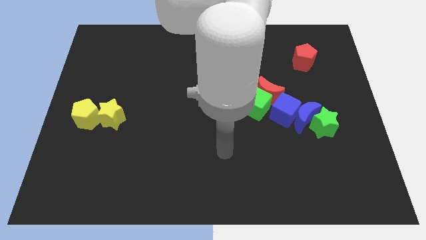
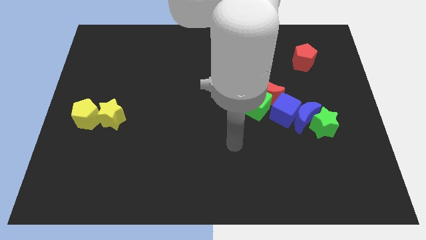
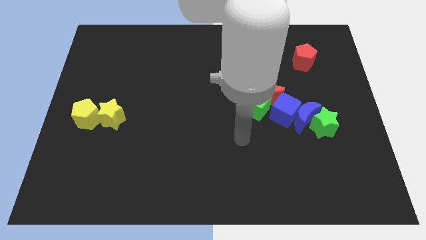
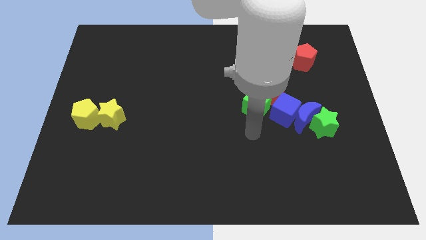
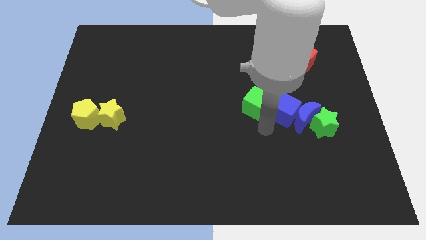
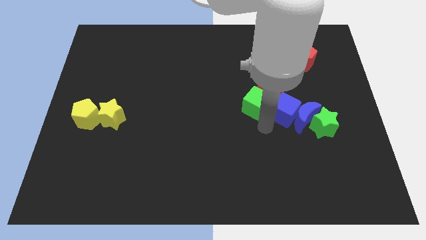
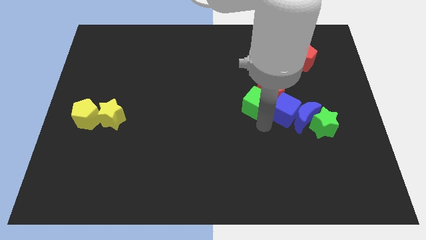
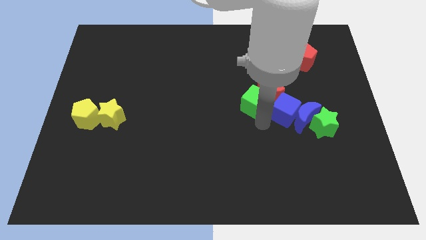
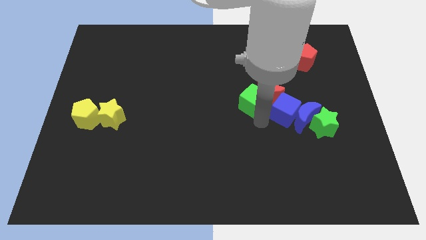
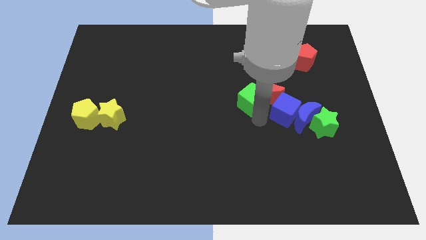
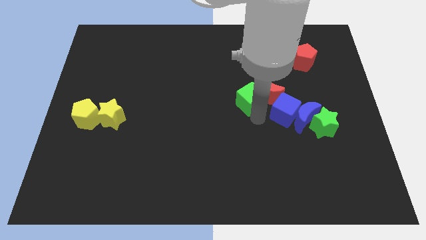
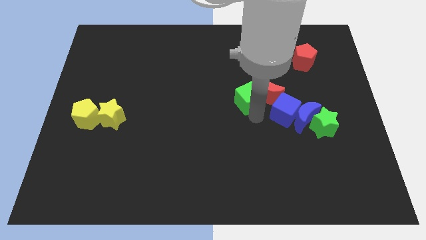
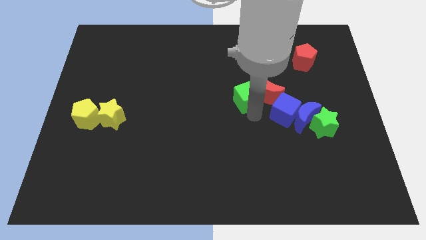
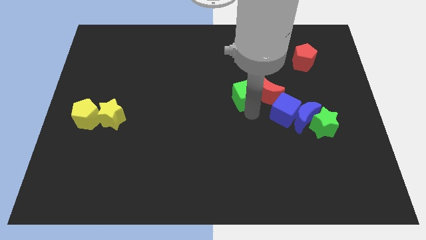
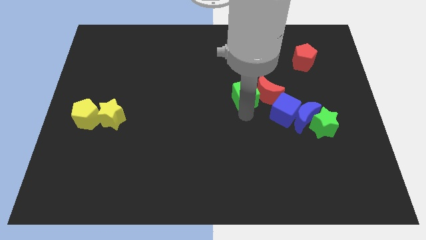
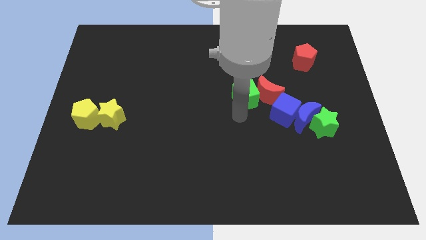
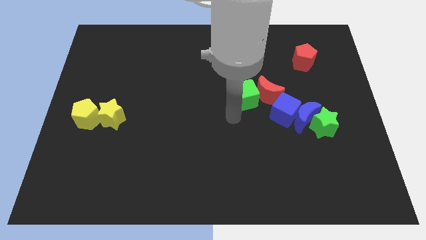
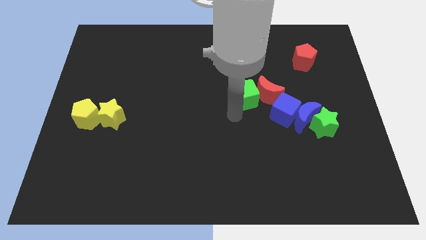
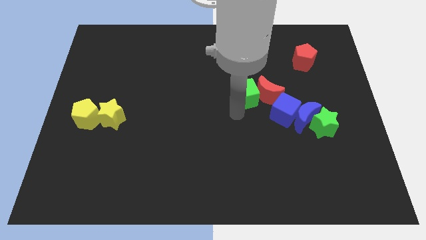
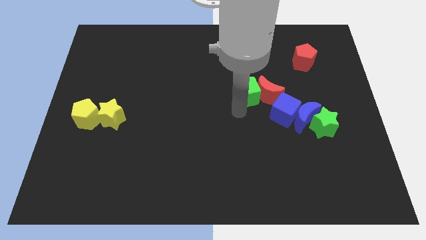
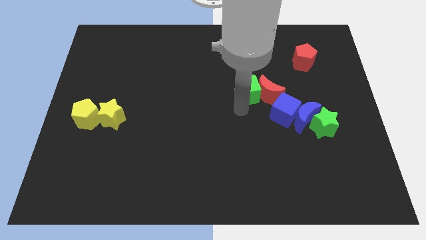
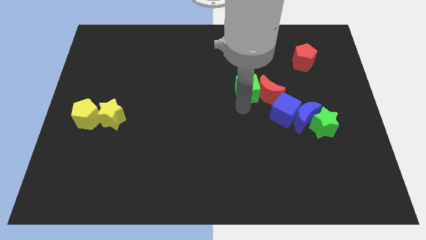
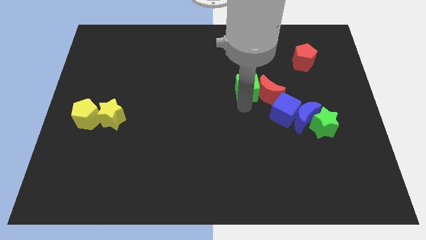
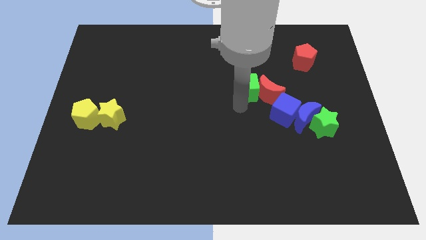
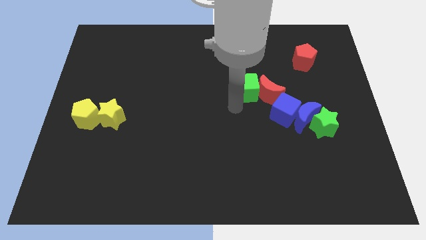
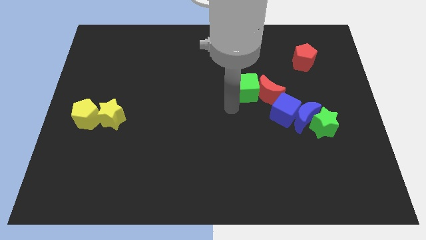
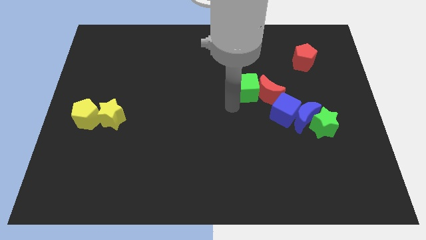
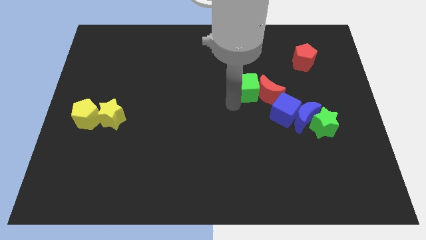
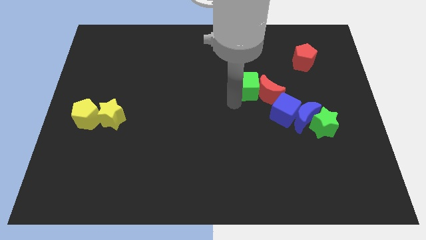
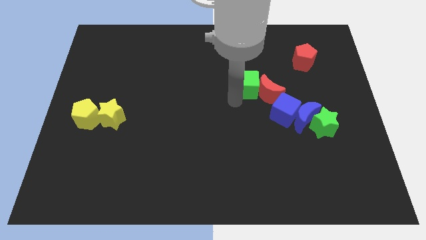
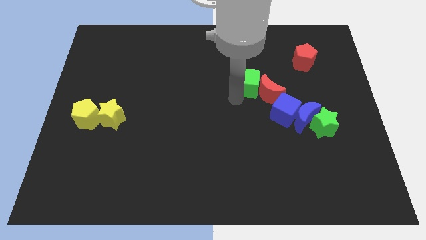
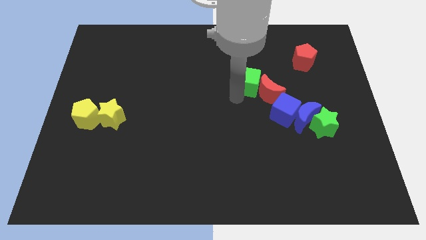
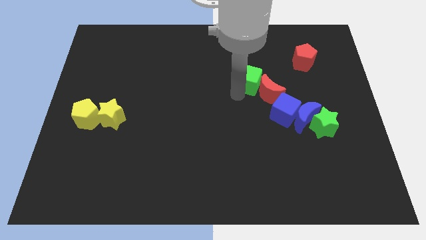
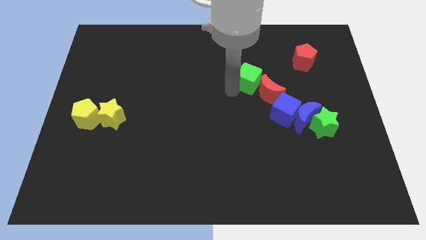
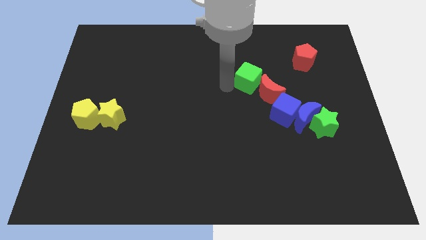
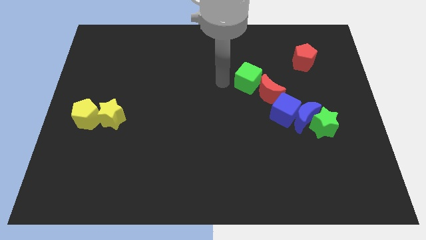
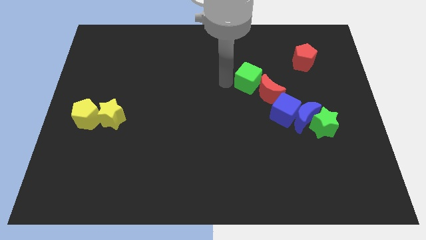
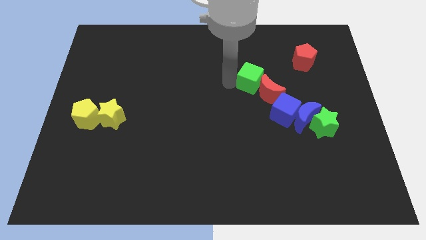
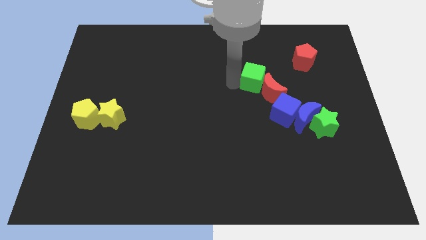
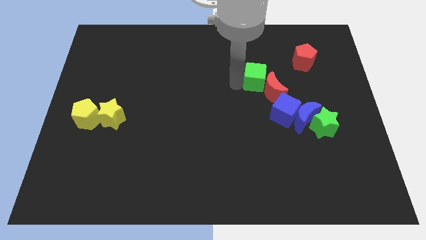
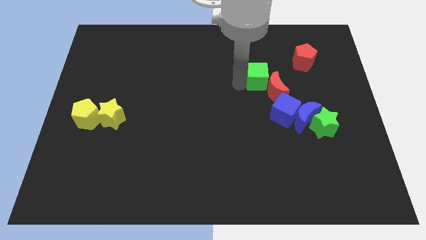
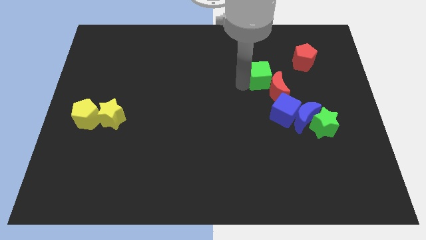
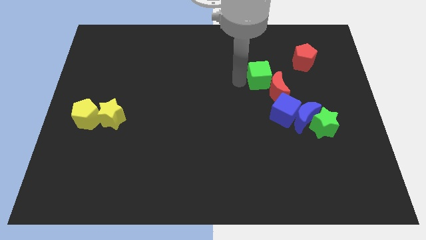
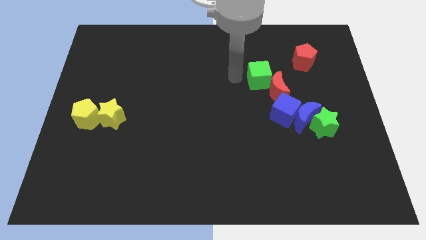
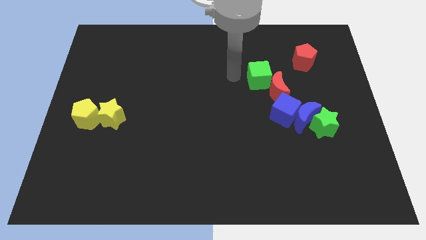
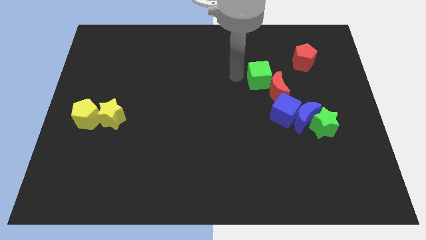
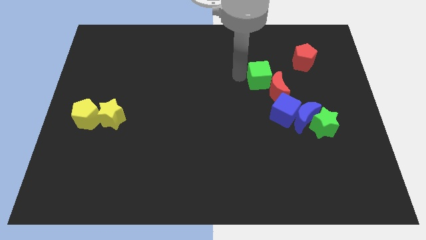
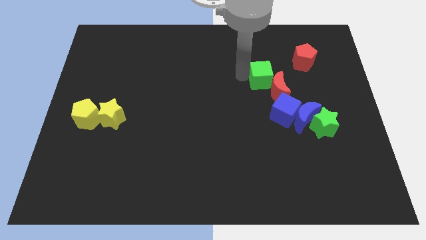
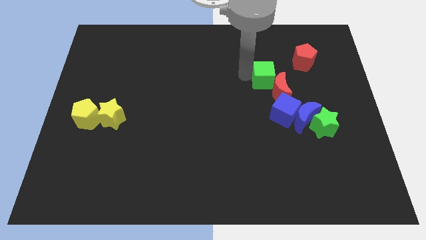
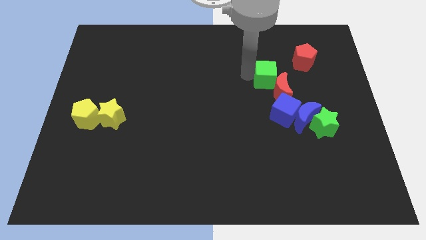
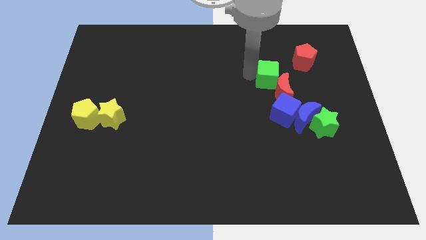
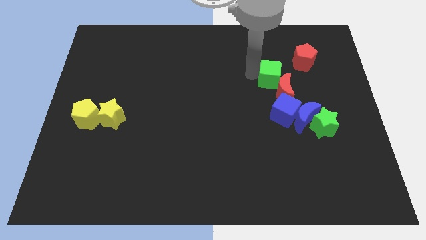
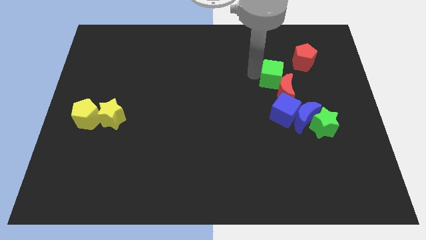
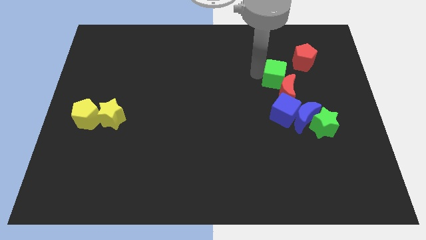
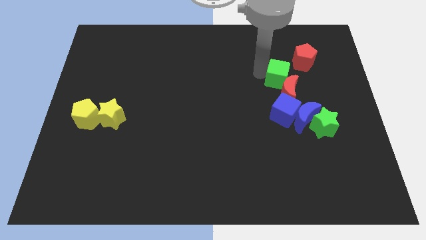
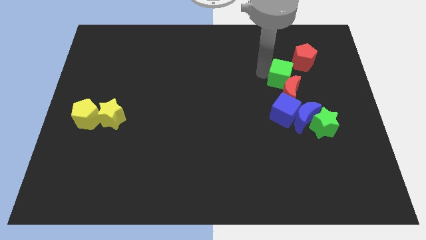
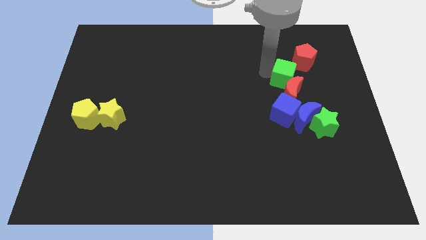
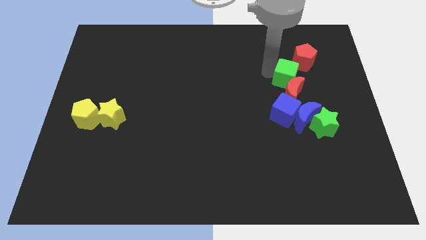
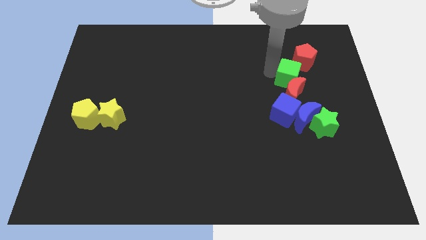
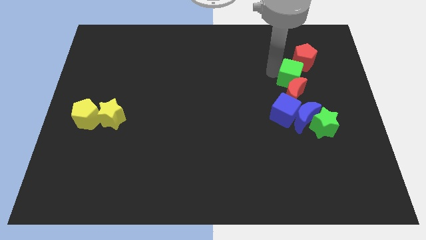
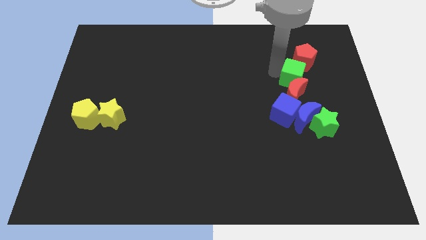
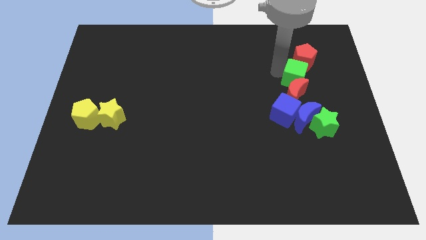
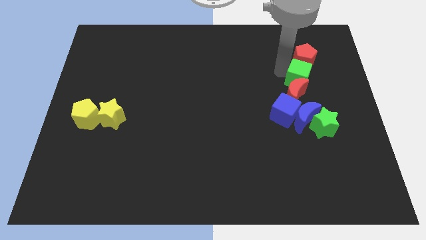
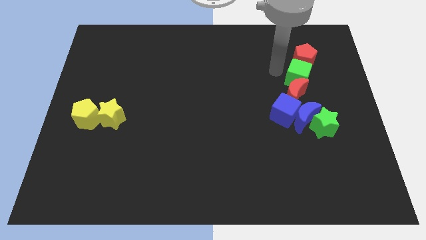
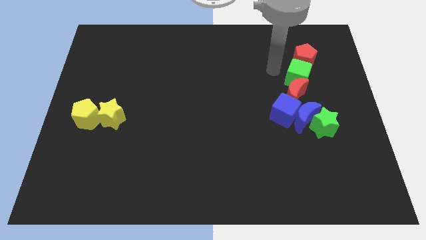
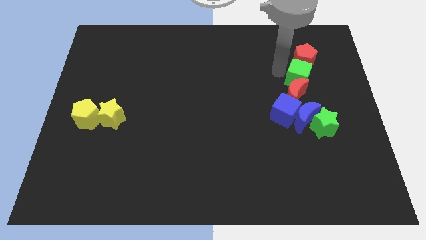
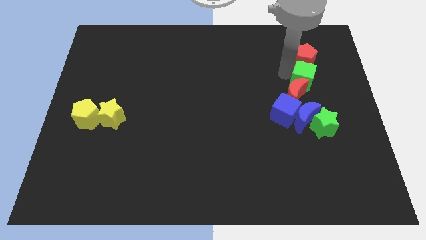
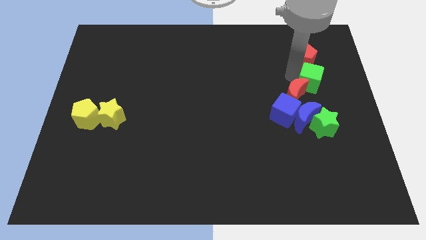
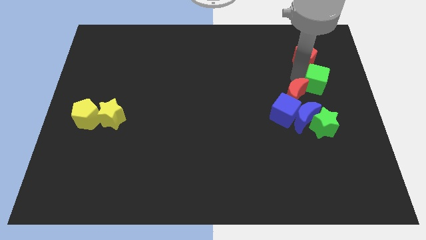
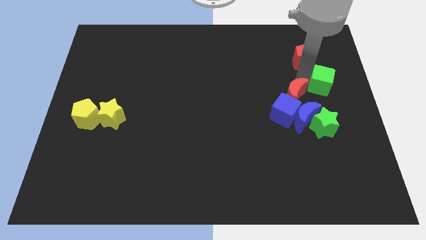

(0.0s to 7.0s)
move the green cube to the right side
